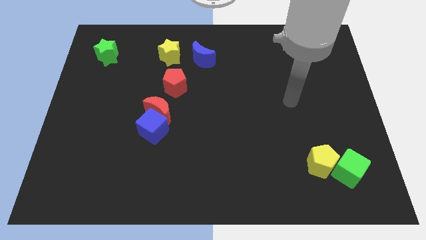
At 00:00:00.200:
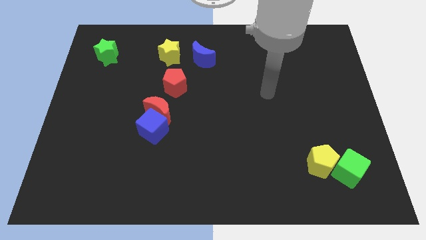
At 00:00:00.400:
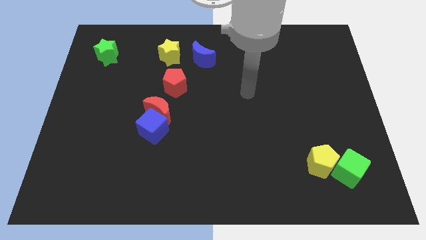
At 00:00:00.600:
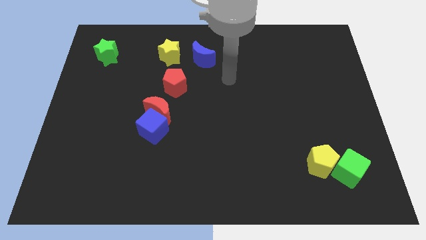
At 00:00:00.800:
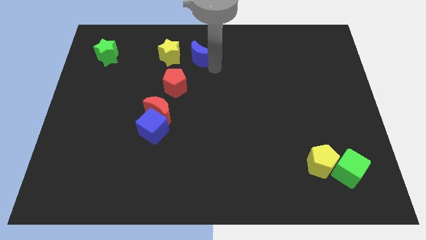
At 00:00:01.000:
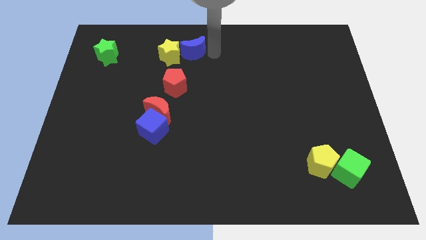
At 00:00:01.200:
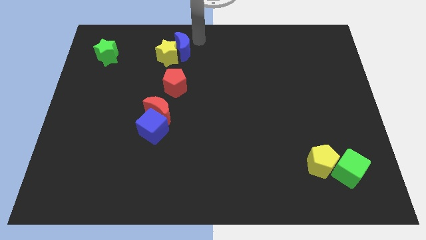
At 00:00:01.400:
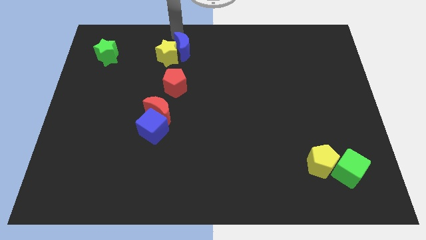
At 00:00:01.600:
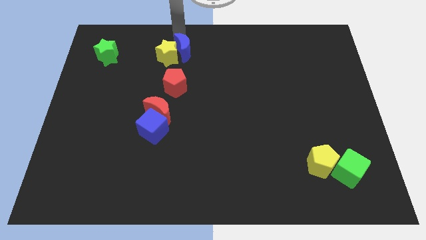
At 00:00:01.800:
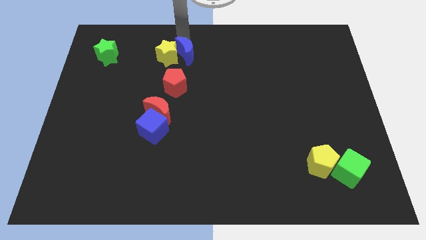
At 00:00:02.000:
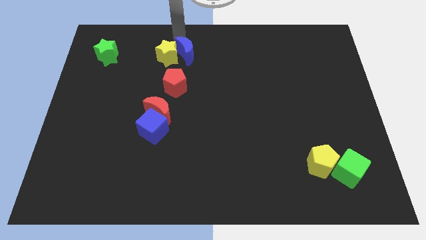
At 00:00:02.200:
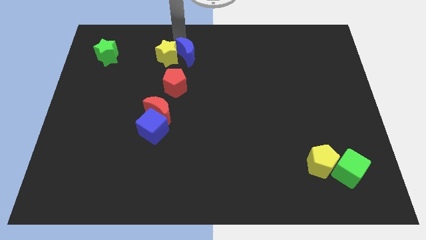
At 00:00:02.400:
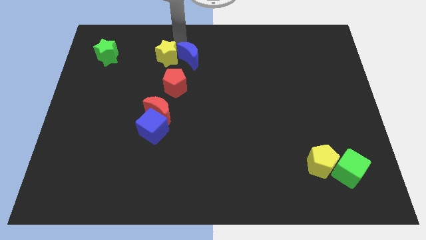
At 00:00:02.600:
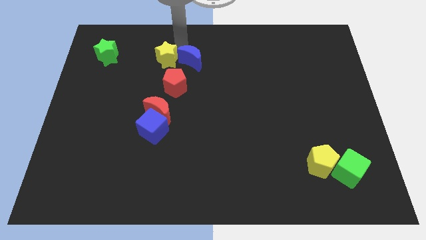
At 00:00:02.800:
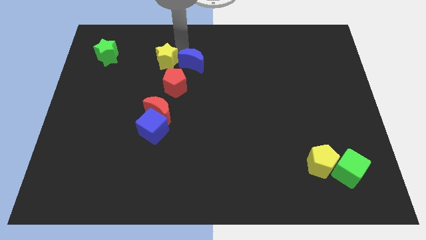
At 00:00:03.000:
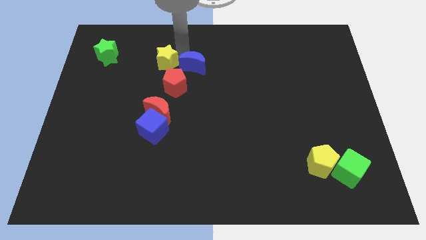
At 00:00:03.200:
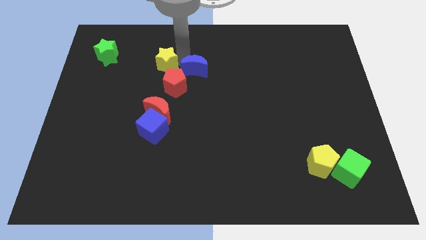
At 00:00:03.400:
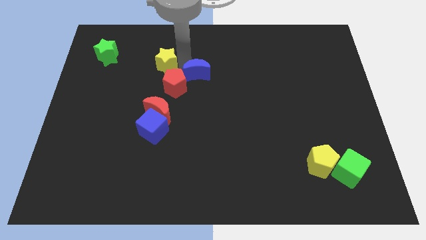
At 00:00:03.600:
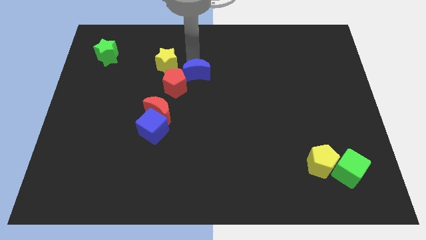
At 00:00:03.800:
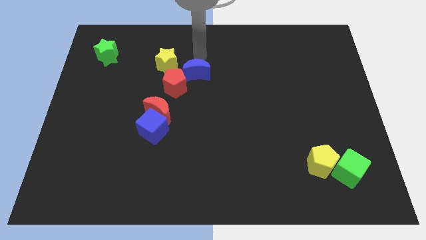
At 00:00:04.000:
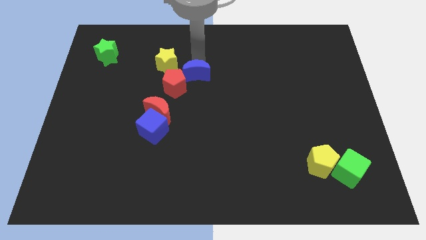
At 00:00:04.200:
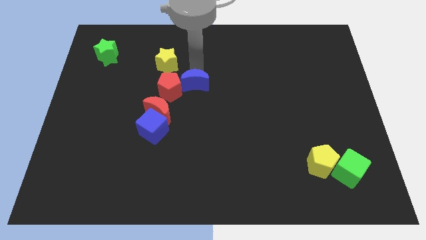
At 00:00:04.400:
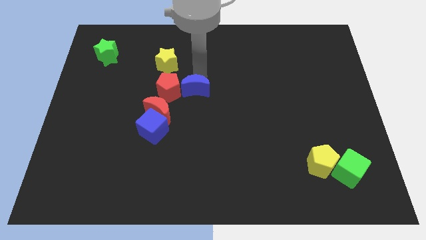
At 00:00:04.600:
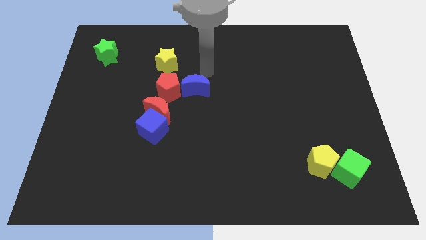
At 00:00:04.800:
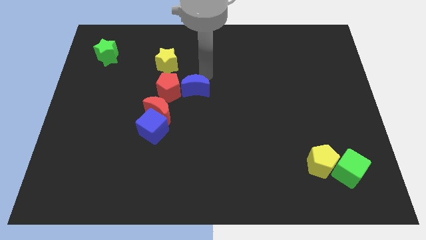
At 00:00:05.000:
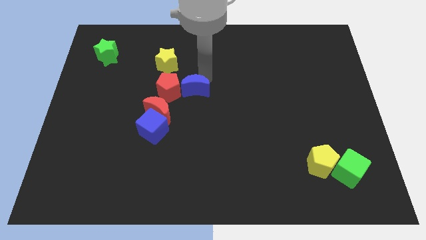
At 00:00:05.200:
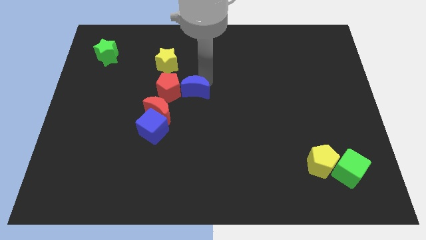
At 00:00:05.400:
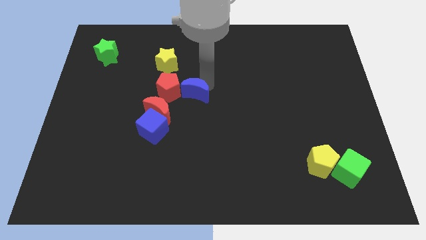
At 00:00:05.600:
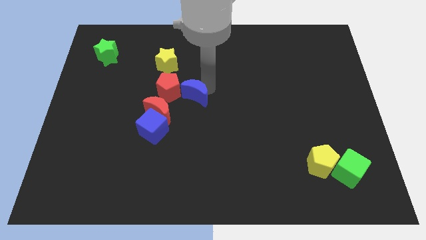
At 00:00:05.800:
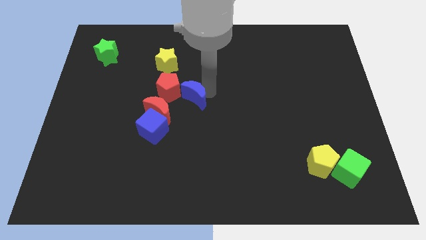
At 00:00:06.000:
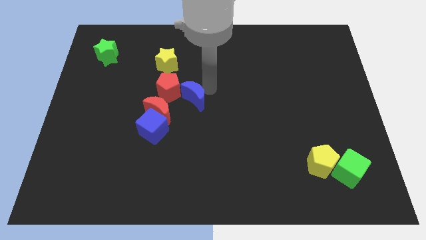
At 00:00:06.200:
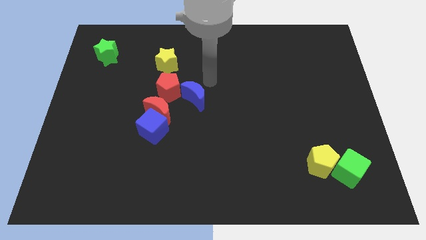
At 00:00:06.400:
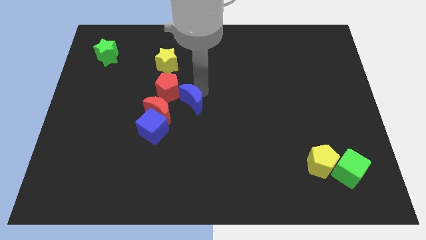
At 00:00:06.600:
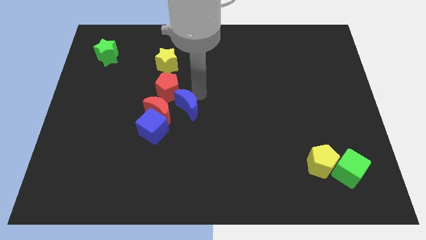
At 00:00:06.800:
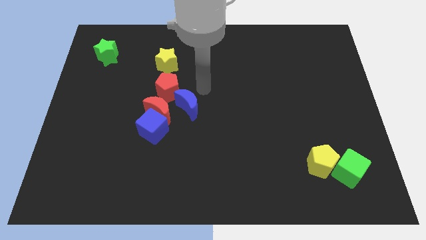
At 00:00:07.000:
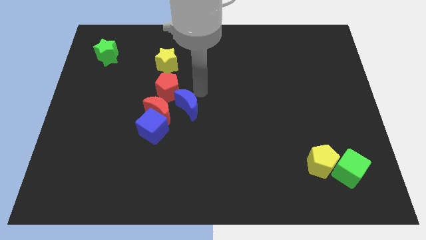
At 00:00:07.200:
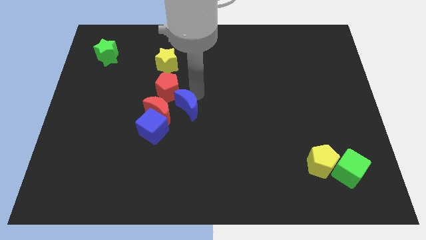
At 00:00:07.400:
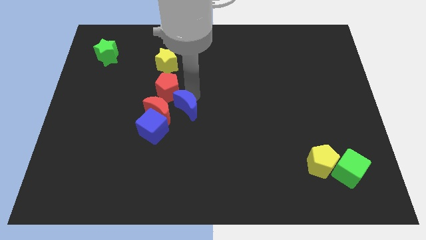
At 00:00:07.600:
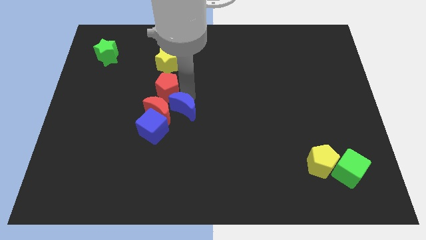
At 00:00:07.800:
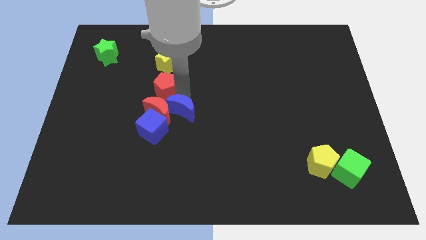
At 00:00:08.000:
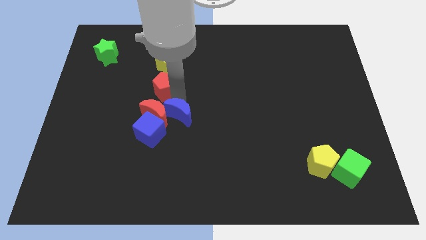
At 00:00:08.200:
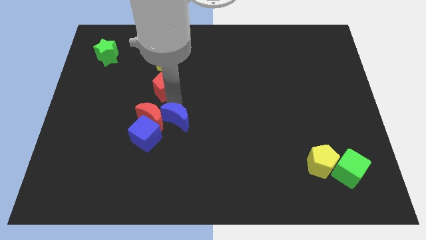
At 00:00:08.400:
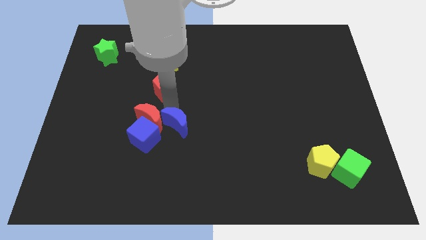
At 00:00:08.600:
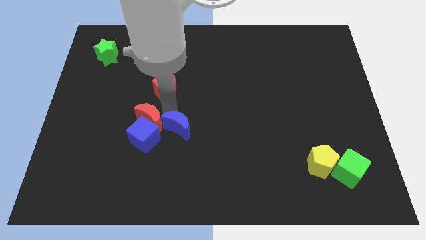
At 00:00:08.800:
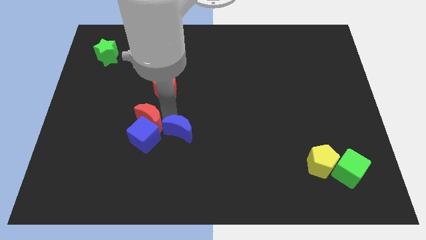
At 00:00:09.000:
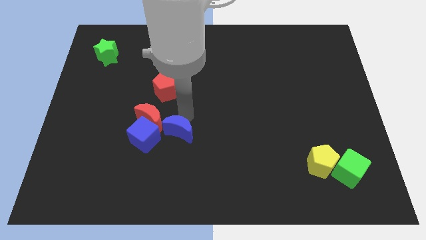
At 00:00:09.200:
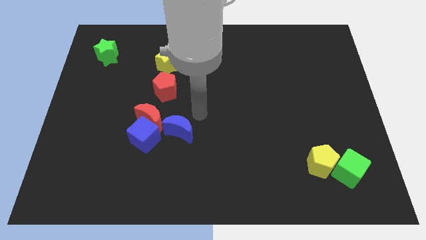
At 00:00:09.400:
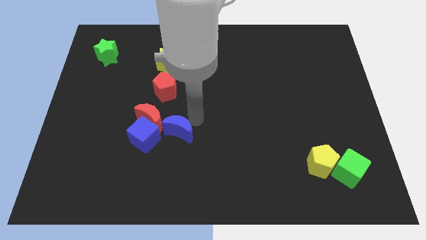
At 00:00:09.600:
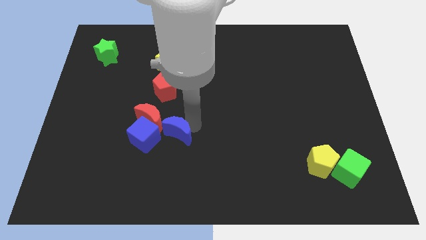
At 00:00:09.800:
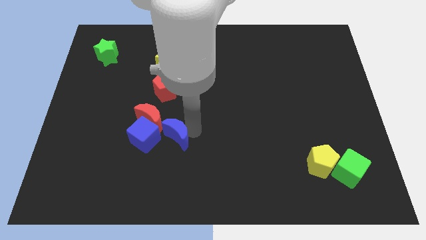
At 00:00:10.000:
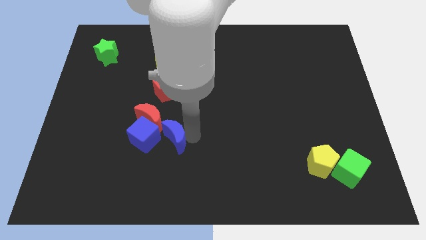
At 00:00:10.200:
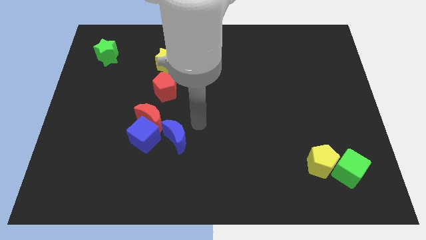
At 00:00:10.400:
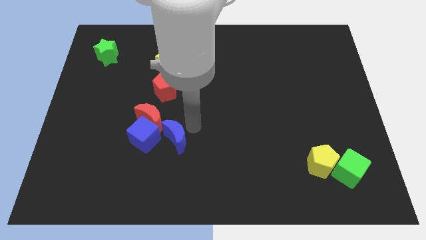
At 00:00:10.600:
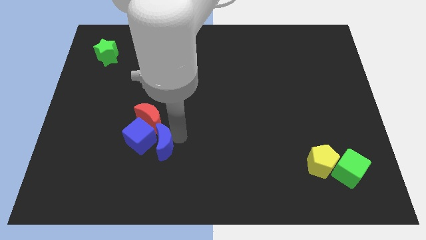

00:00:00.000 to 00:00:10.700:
push the blue moon below the red moon

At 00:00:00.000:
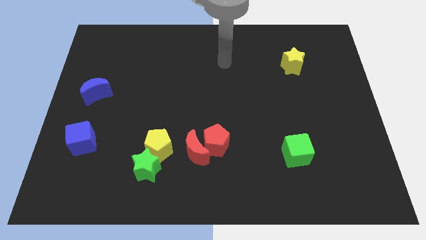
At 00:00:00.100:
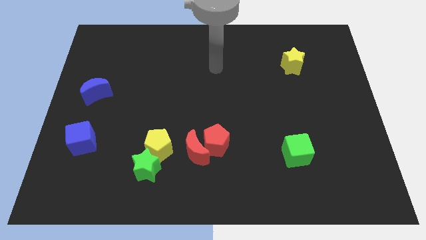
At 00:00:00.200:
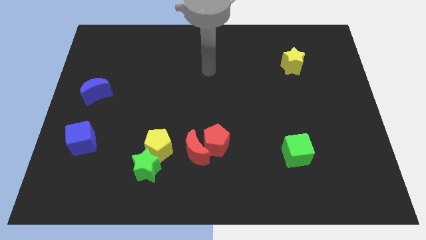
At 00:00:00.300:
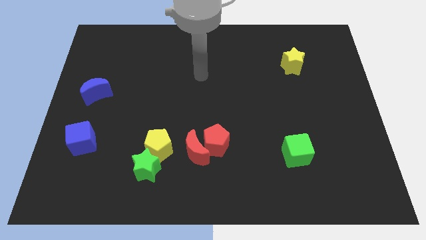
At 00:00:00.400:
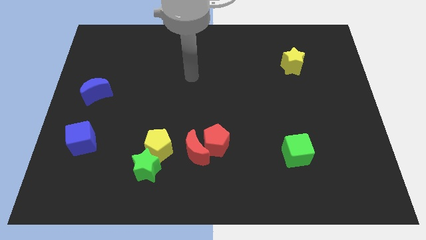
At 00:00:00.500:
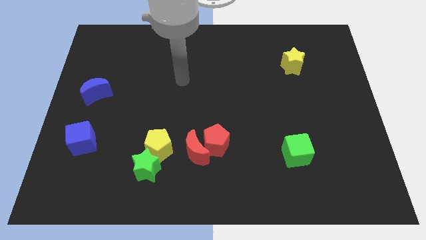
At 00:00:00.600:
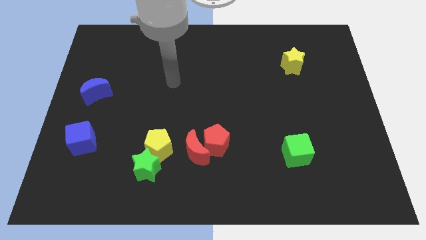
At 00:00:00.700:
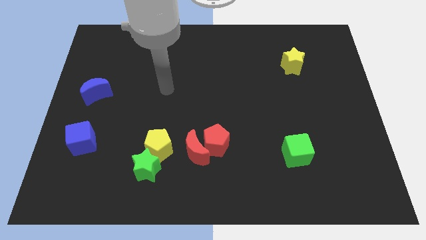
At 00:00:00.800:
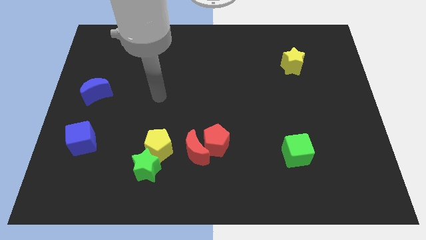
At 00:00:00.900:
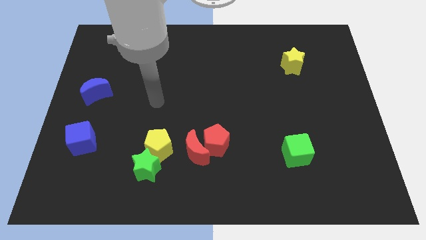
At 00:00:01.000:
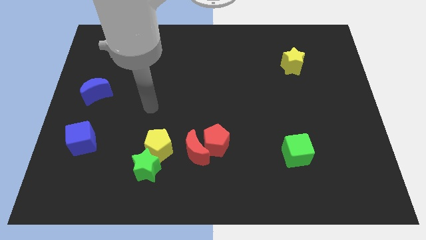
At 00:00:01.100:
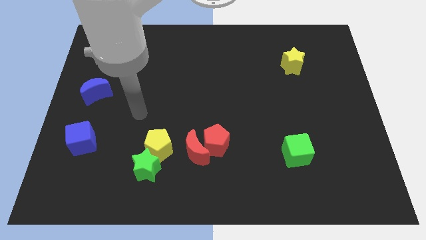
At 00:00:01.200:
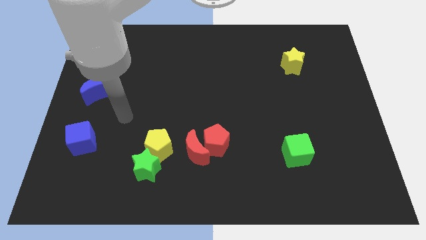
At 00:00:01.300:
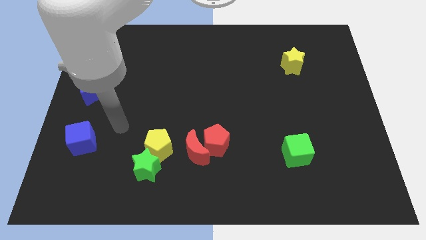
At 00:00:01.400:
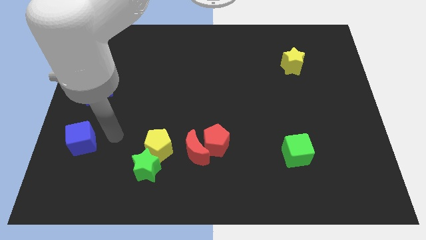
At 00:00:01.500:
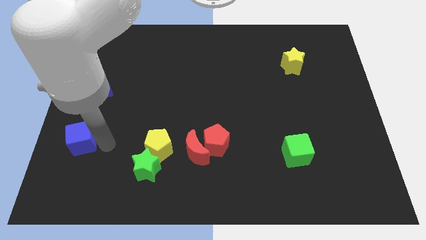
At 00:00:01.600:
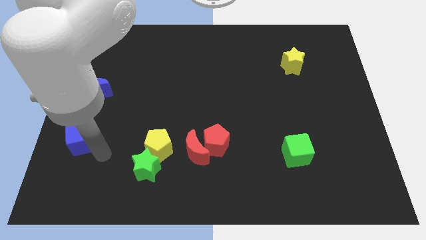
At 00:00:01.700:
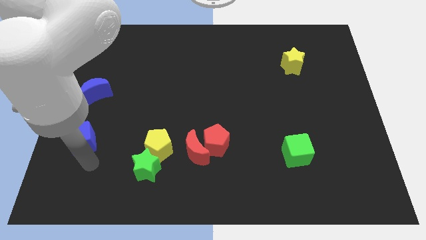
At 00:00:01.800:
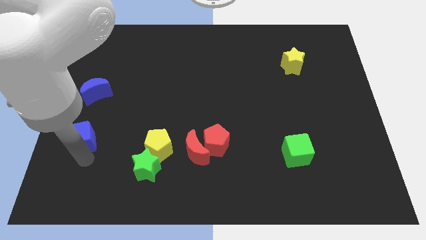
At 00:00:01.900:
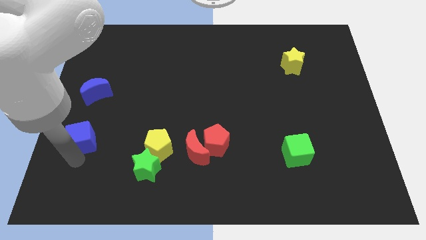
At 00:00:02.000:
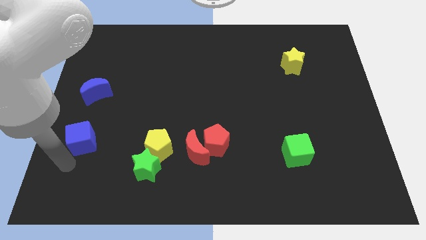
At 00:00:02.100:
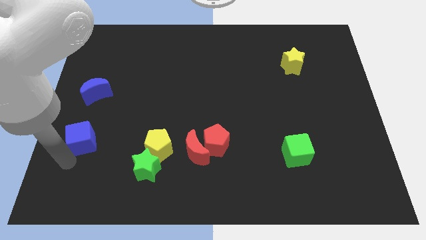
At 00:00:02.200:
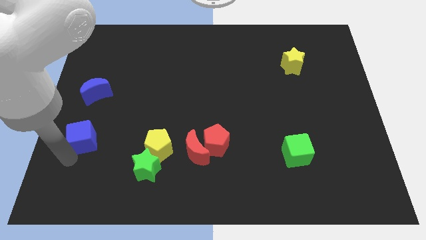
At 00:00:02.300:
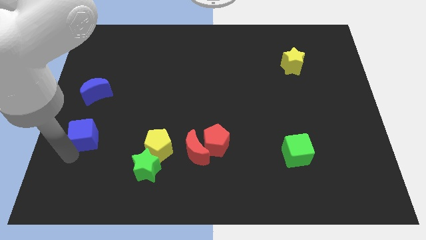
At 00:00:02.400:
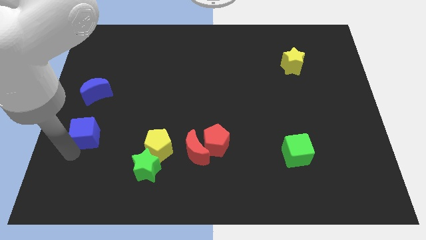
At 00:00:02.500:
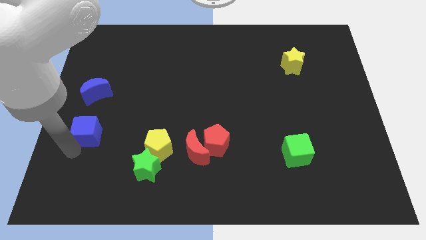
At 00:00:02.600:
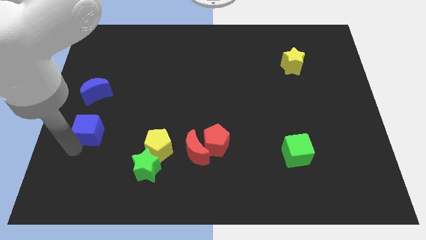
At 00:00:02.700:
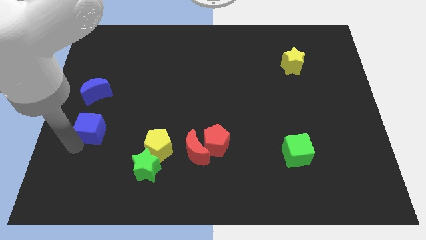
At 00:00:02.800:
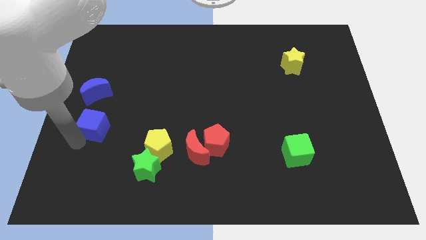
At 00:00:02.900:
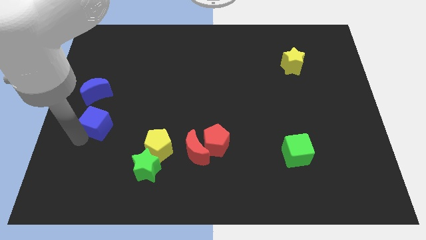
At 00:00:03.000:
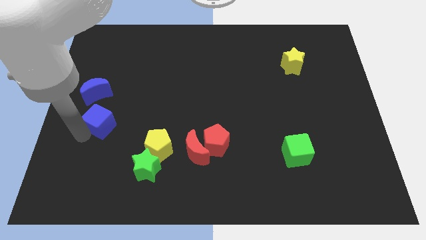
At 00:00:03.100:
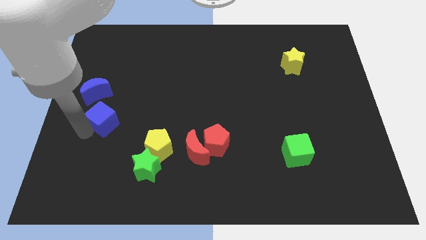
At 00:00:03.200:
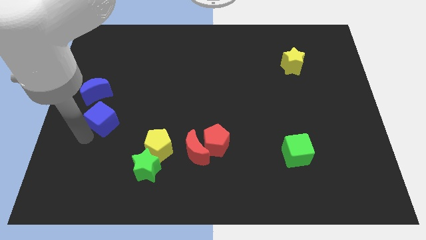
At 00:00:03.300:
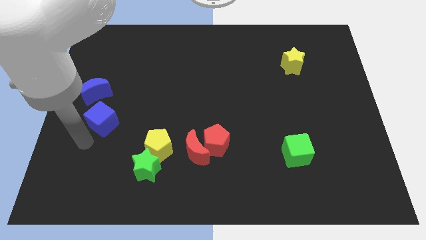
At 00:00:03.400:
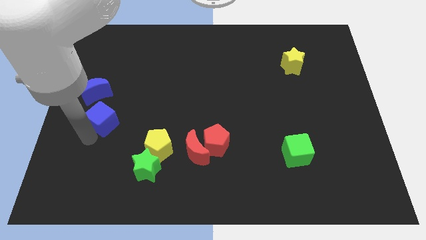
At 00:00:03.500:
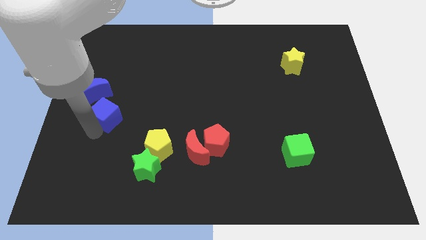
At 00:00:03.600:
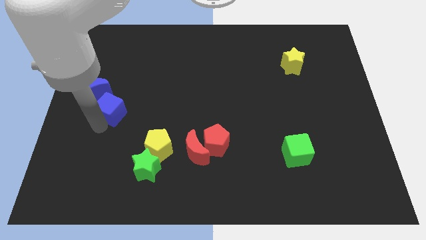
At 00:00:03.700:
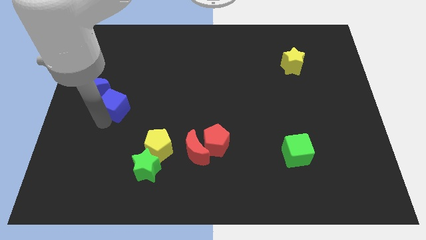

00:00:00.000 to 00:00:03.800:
put the blue cube to the right side of the blue moon
